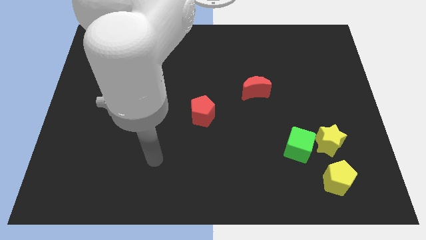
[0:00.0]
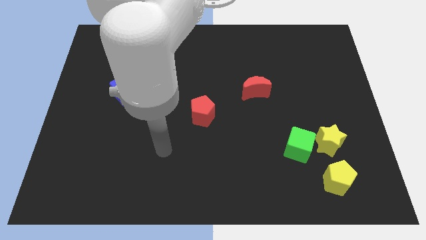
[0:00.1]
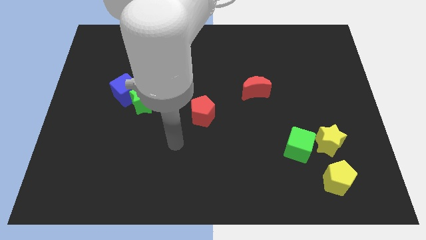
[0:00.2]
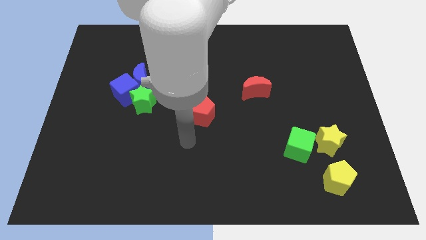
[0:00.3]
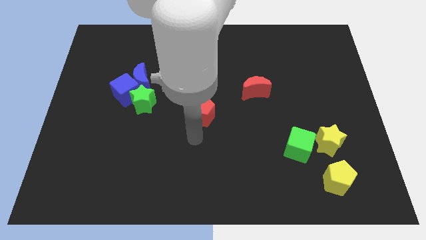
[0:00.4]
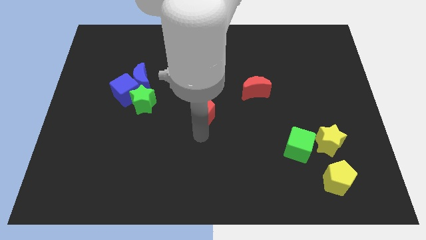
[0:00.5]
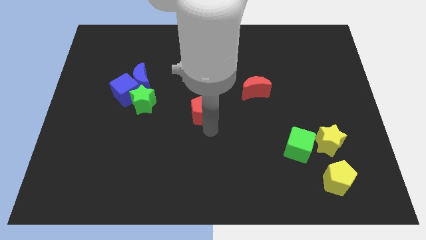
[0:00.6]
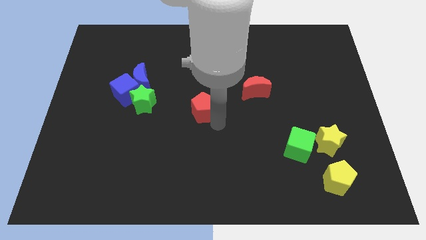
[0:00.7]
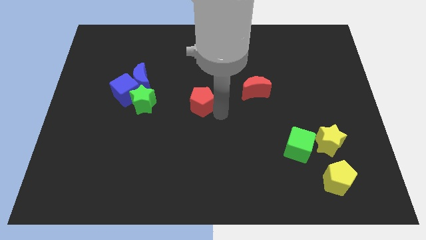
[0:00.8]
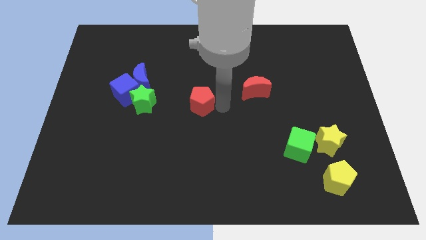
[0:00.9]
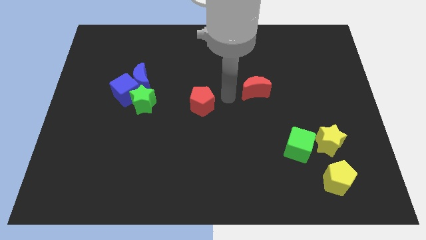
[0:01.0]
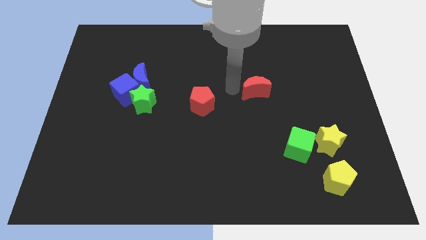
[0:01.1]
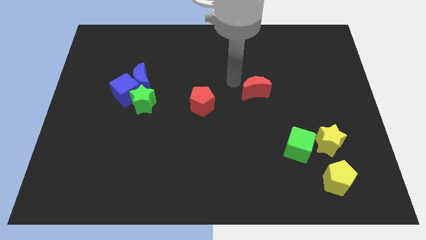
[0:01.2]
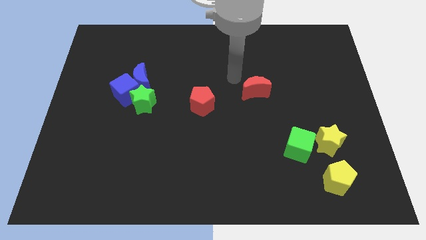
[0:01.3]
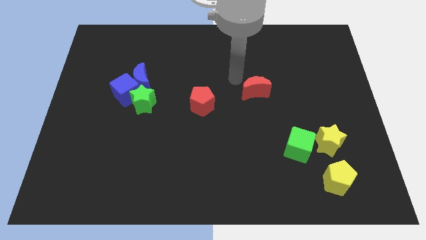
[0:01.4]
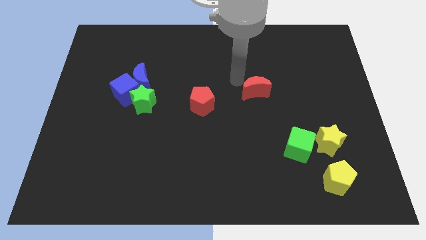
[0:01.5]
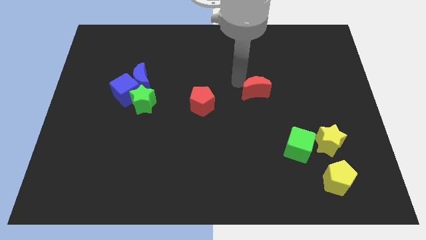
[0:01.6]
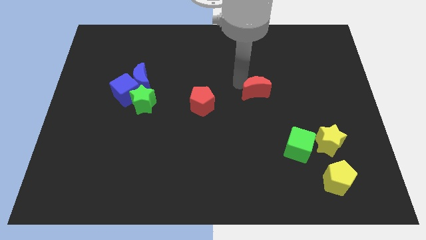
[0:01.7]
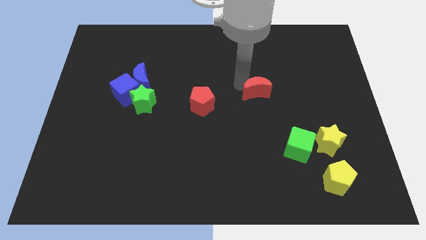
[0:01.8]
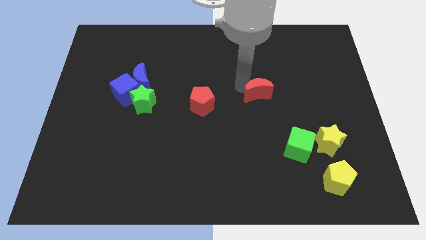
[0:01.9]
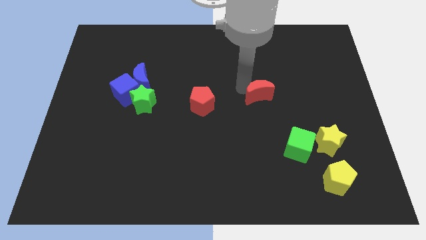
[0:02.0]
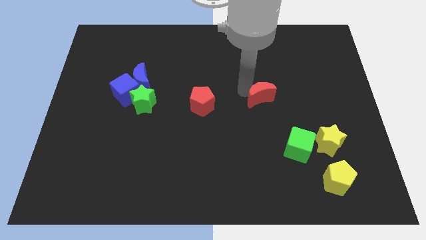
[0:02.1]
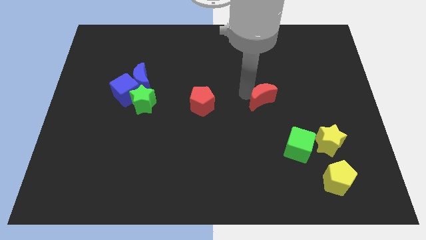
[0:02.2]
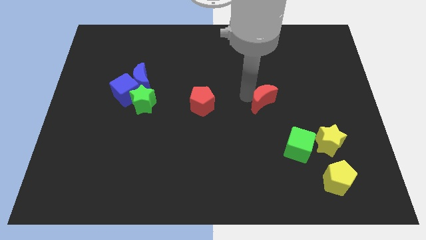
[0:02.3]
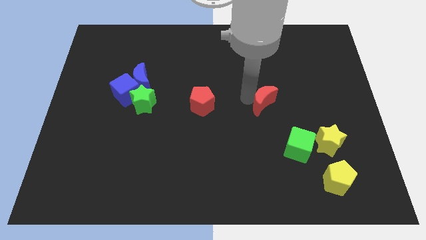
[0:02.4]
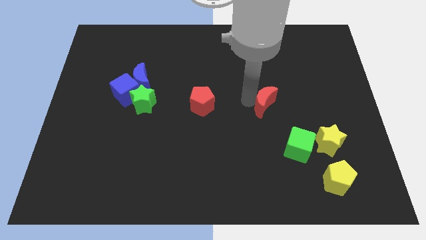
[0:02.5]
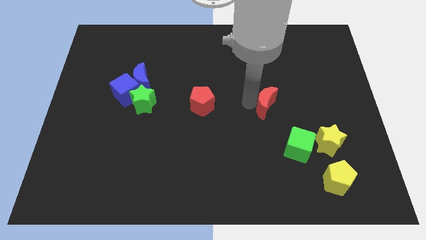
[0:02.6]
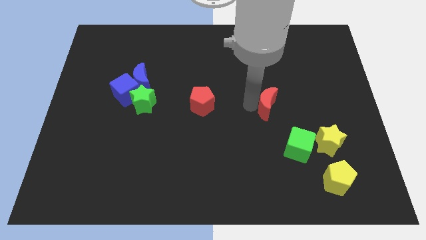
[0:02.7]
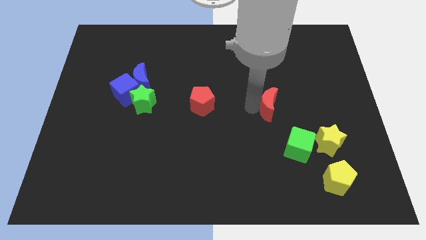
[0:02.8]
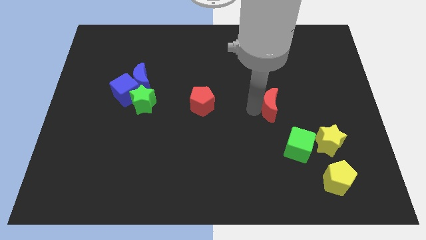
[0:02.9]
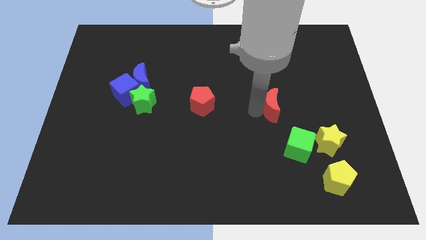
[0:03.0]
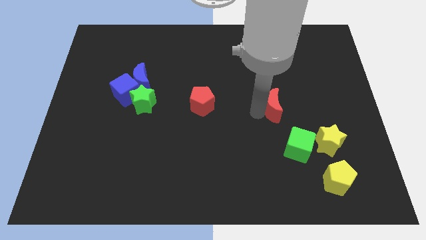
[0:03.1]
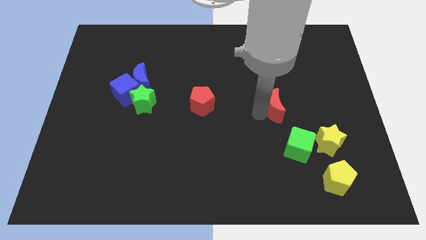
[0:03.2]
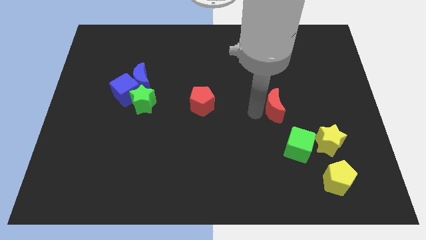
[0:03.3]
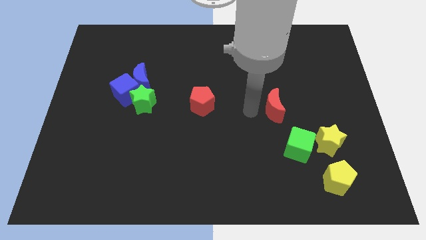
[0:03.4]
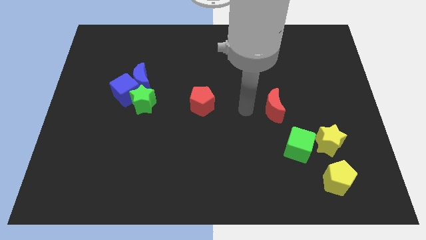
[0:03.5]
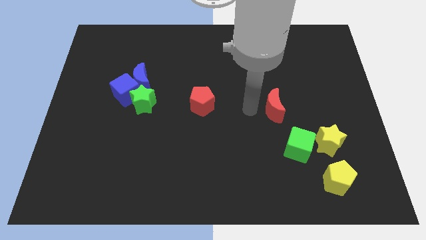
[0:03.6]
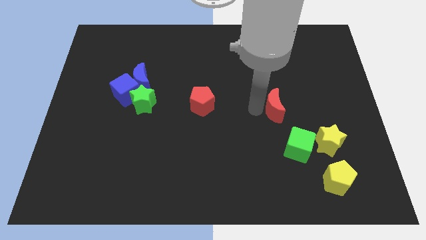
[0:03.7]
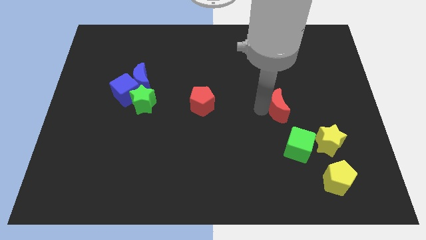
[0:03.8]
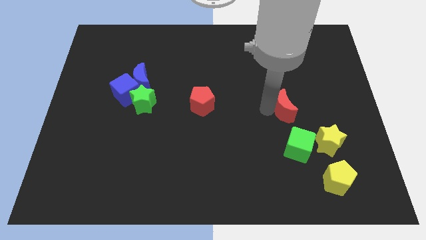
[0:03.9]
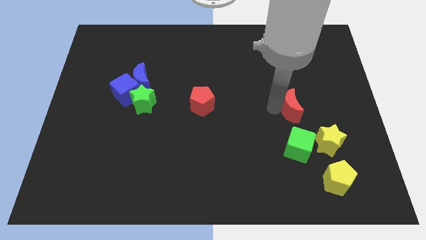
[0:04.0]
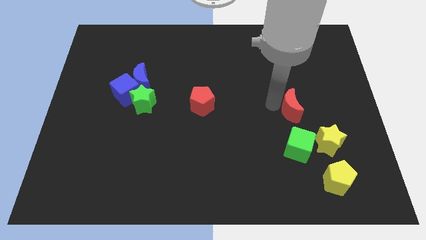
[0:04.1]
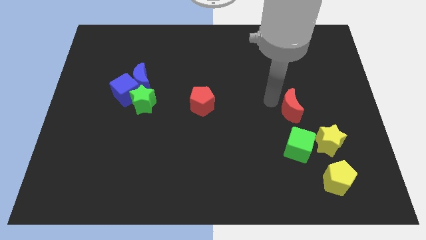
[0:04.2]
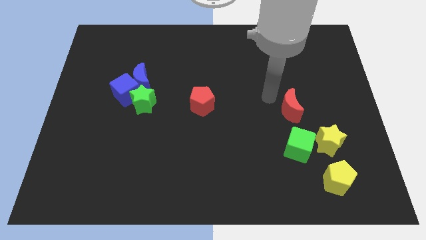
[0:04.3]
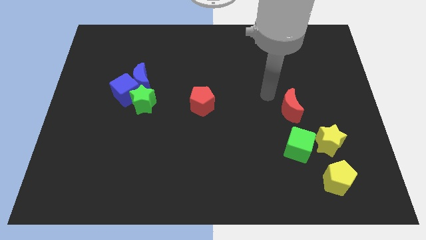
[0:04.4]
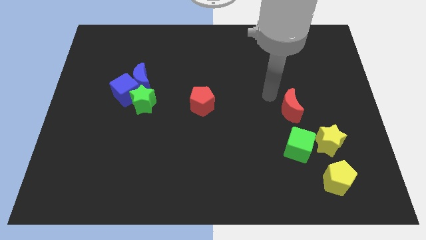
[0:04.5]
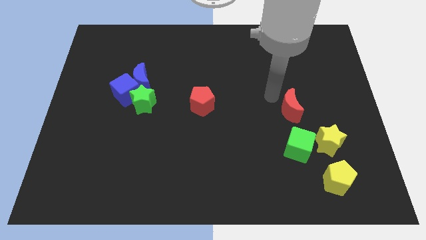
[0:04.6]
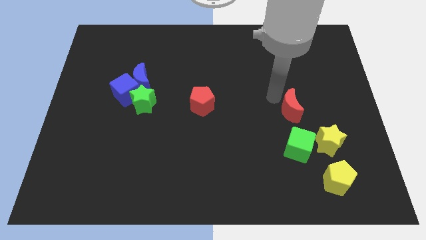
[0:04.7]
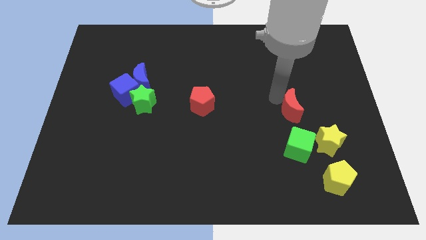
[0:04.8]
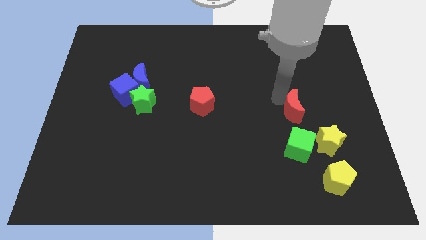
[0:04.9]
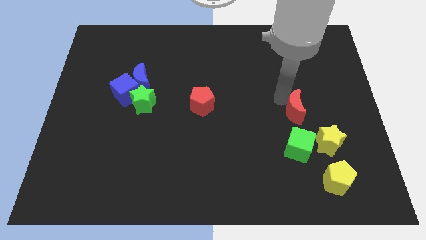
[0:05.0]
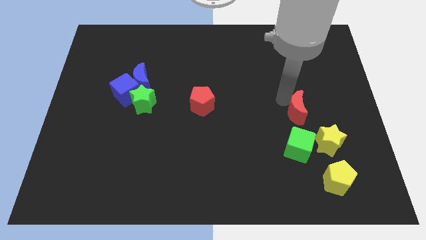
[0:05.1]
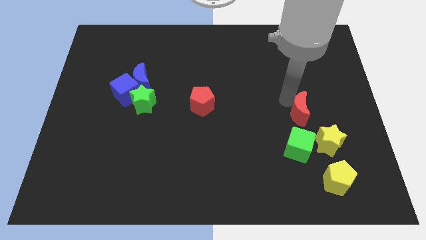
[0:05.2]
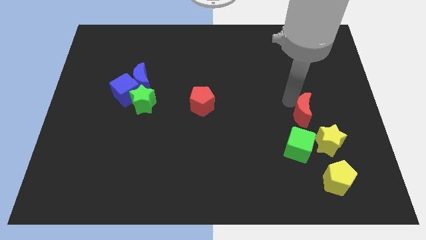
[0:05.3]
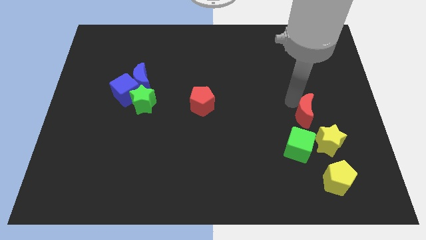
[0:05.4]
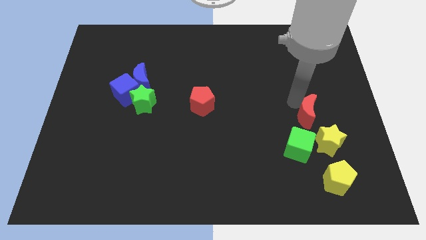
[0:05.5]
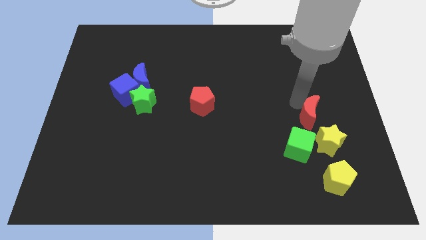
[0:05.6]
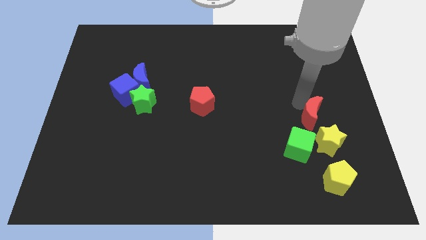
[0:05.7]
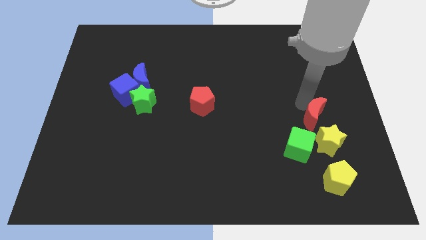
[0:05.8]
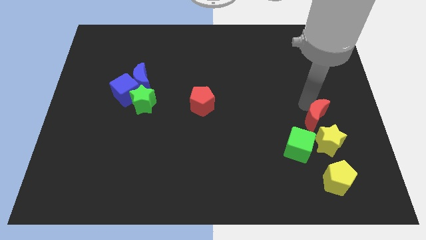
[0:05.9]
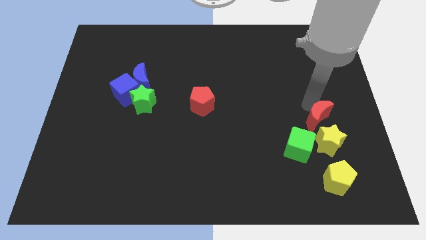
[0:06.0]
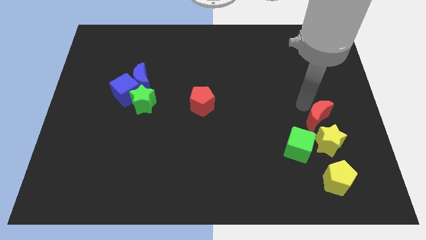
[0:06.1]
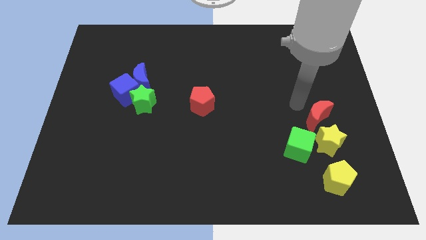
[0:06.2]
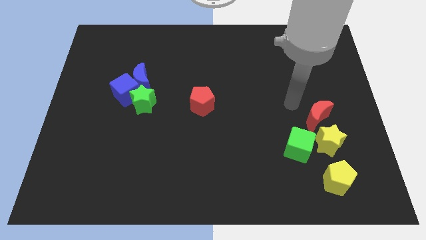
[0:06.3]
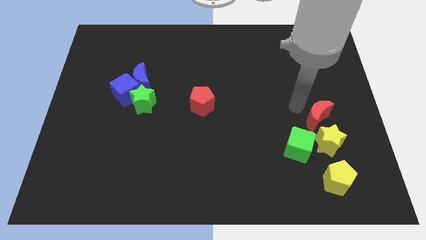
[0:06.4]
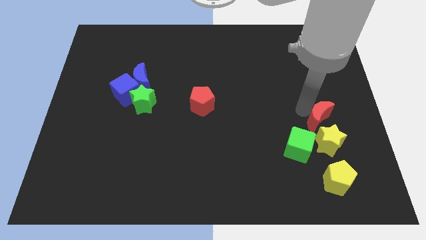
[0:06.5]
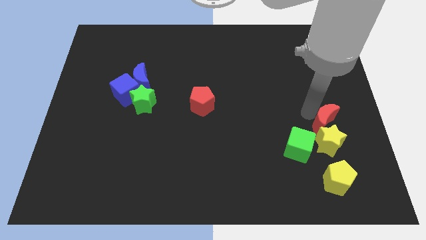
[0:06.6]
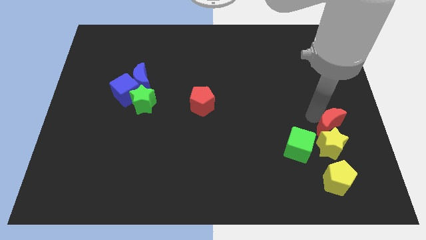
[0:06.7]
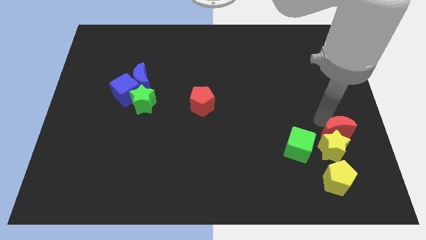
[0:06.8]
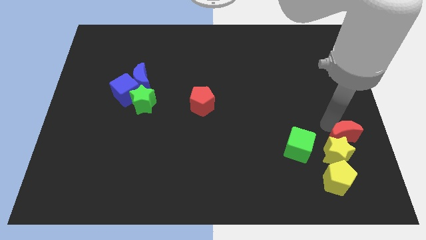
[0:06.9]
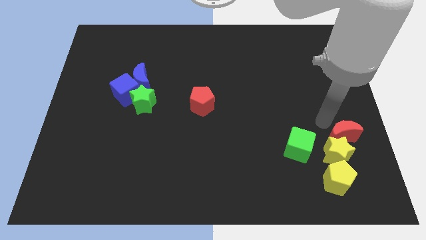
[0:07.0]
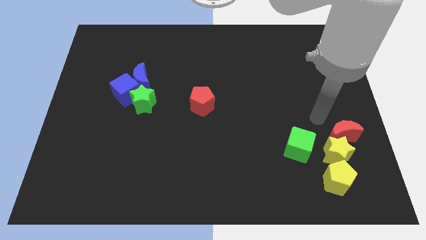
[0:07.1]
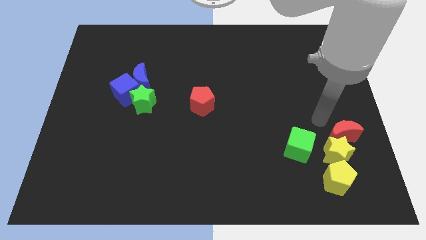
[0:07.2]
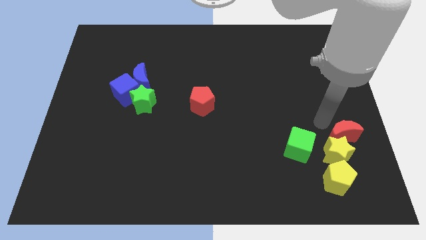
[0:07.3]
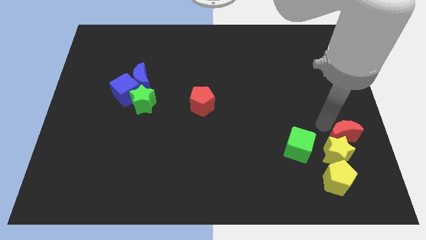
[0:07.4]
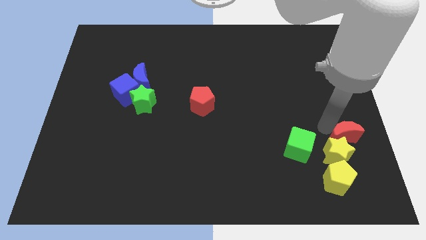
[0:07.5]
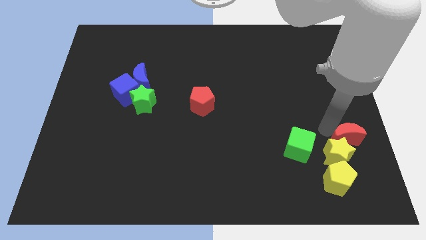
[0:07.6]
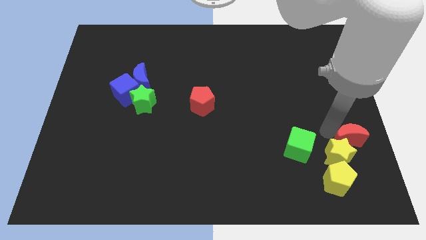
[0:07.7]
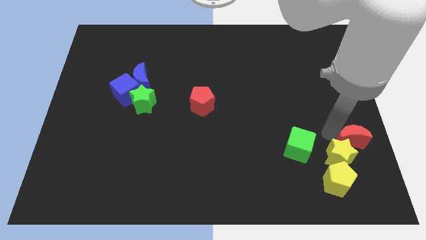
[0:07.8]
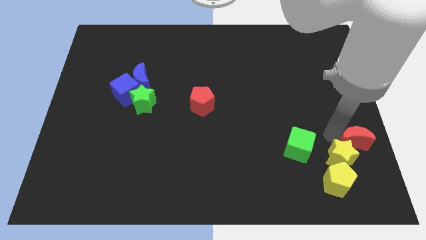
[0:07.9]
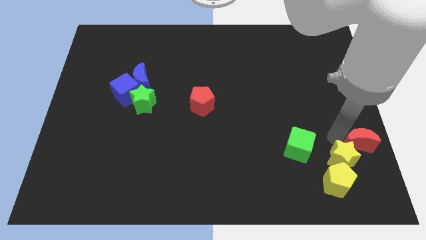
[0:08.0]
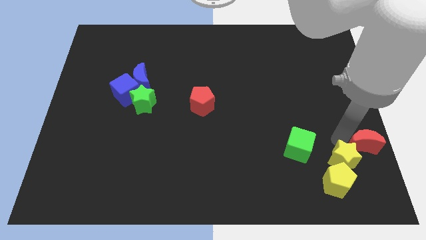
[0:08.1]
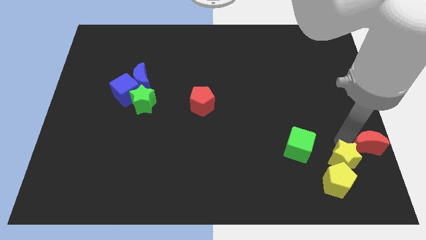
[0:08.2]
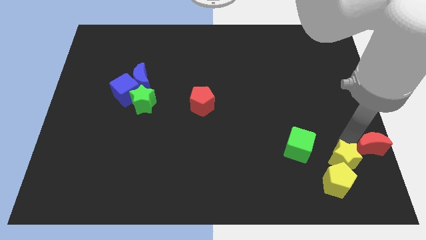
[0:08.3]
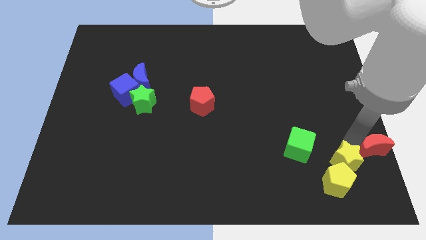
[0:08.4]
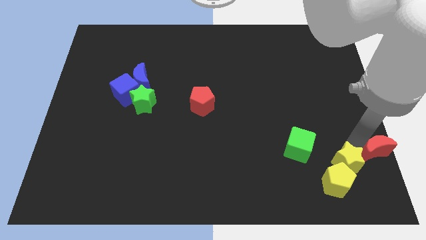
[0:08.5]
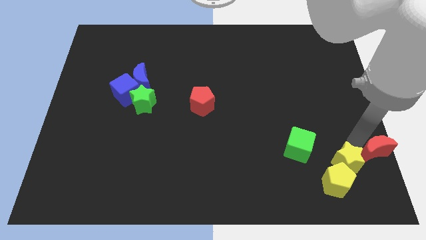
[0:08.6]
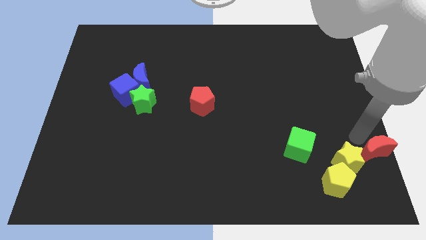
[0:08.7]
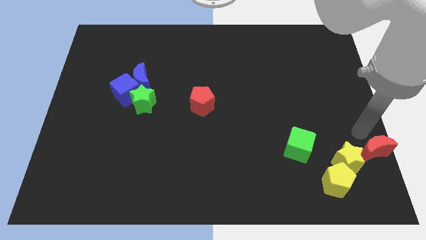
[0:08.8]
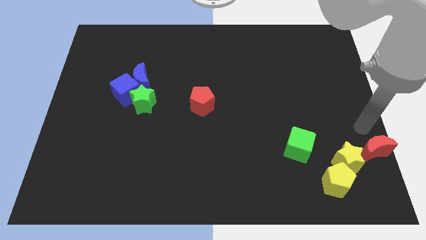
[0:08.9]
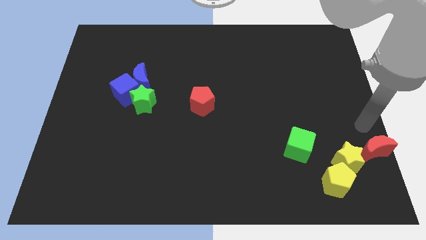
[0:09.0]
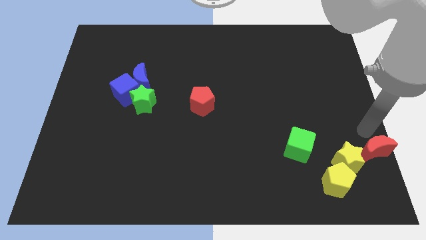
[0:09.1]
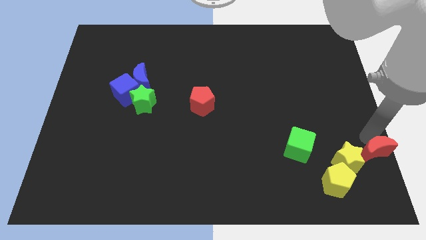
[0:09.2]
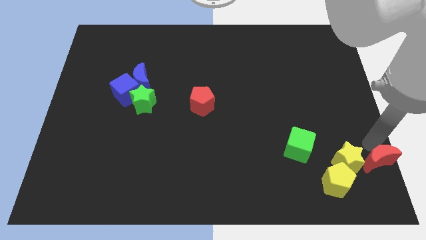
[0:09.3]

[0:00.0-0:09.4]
push the red moon to the bottom right
